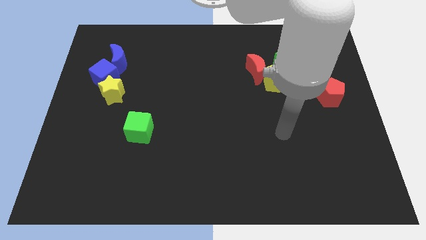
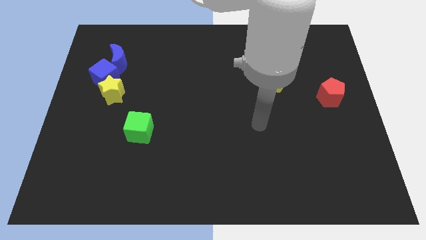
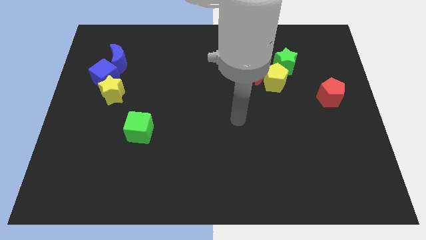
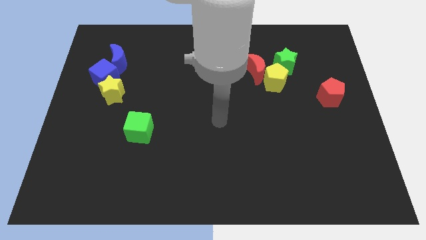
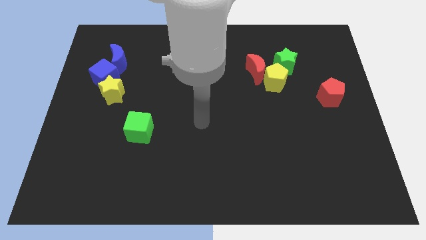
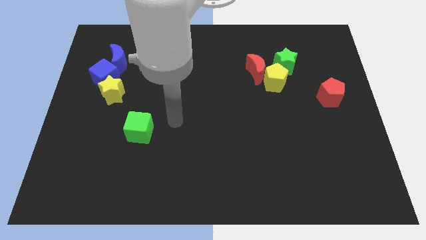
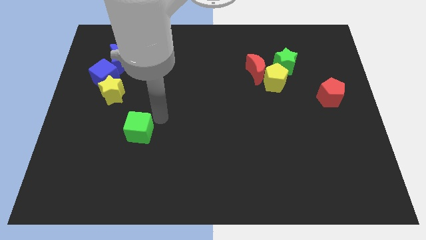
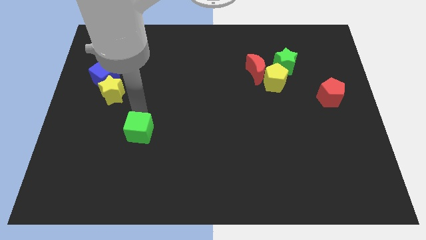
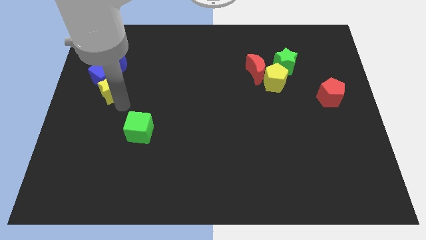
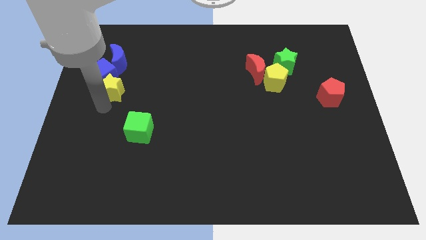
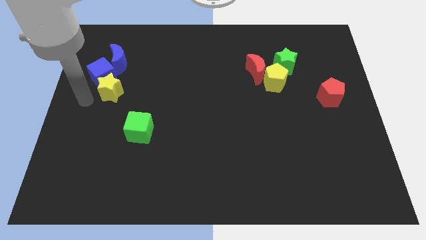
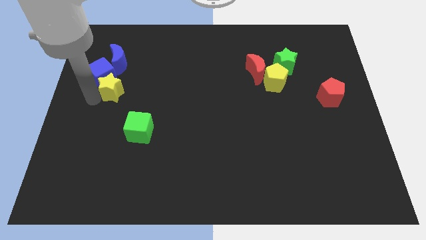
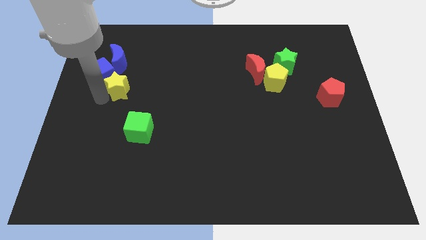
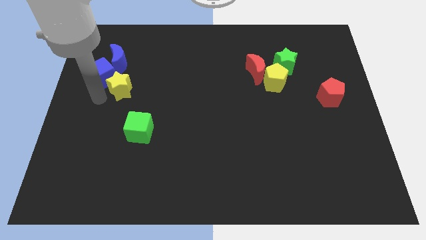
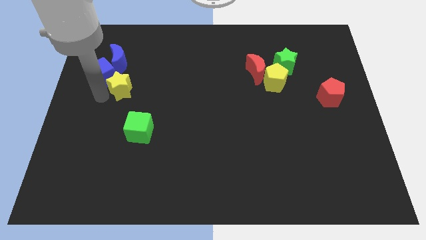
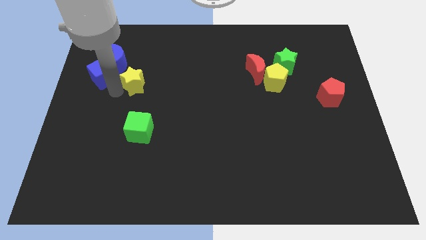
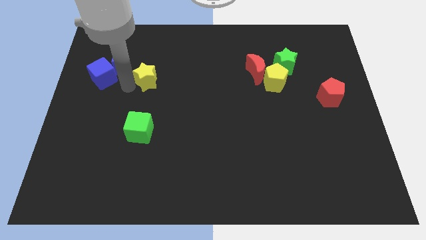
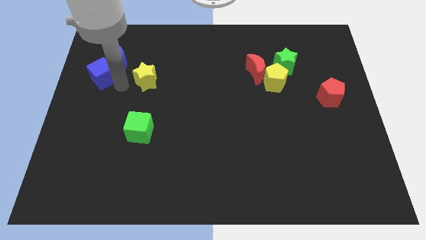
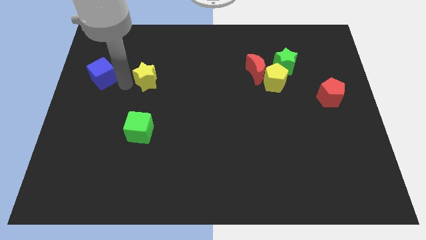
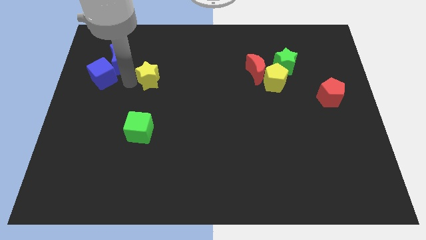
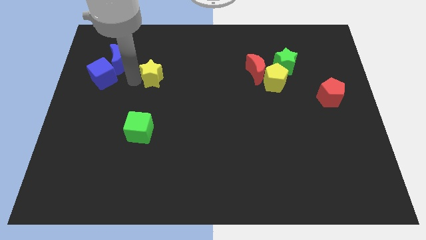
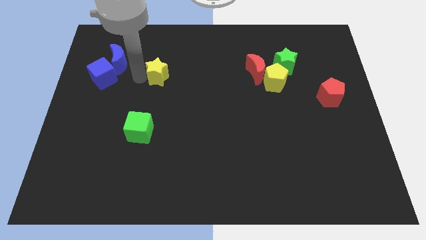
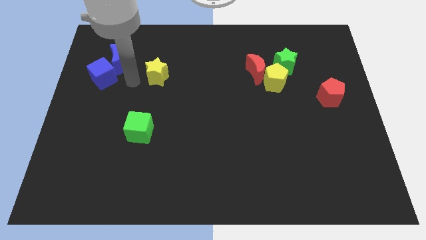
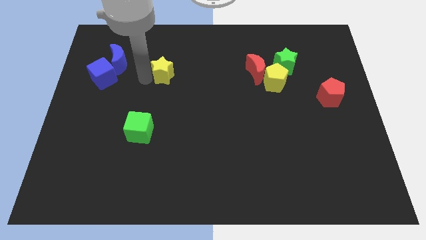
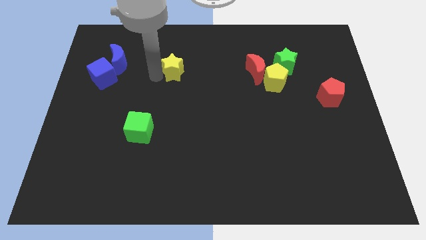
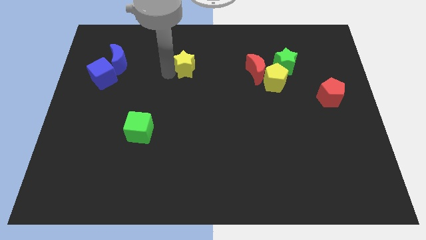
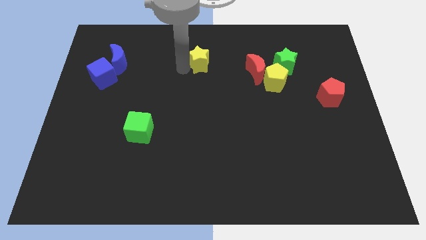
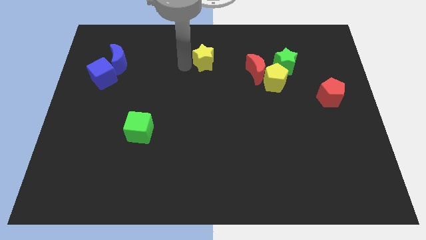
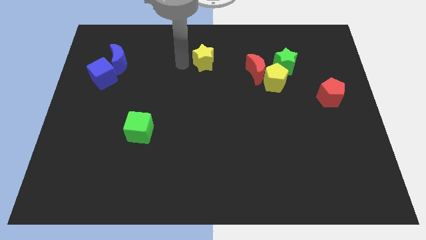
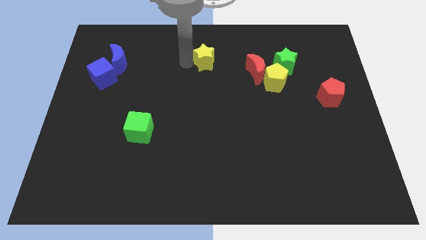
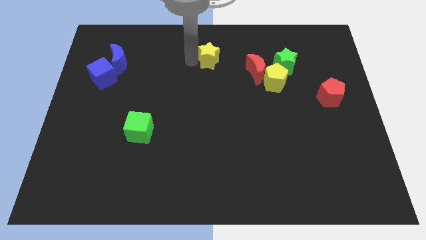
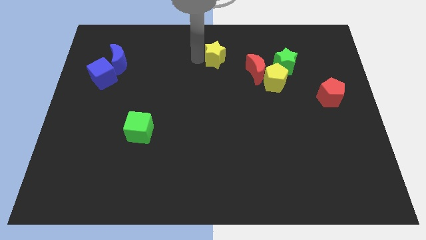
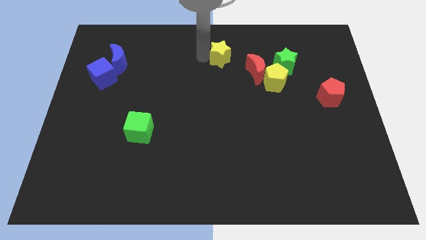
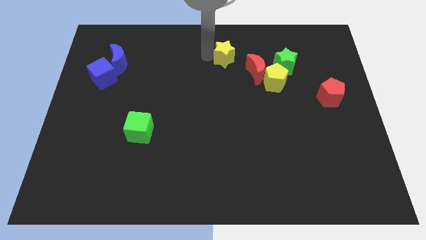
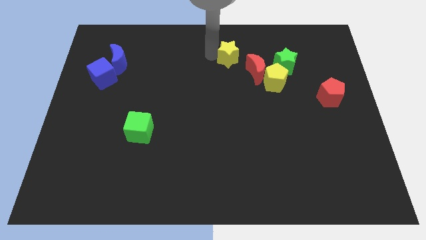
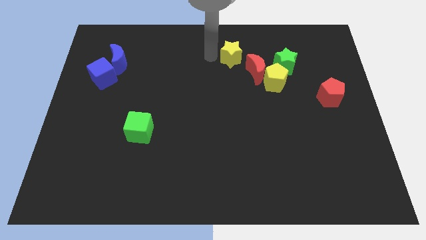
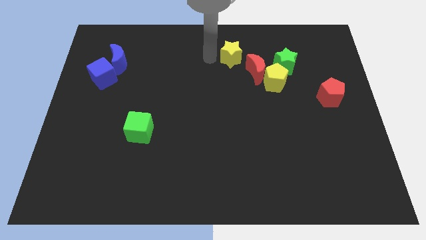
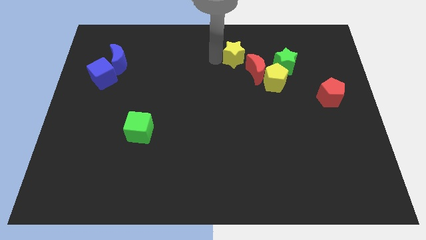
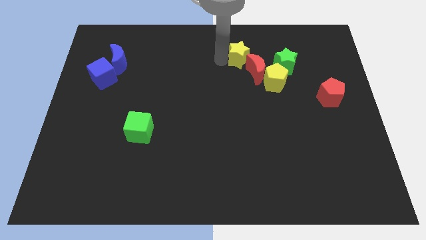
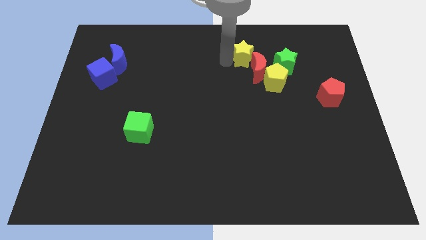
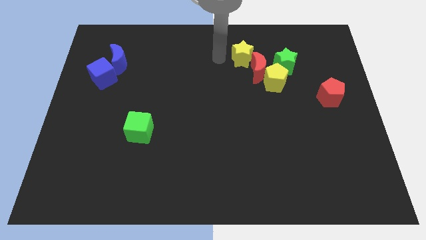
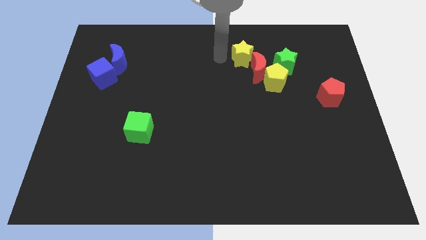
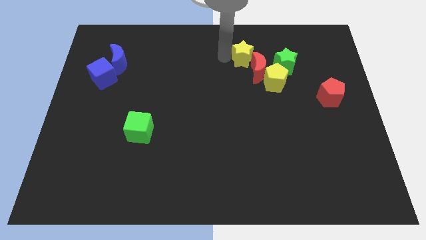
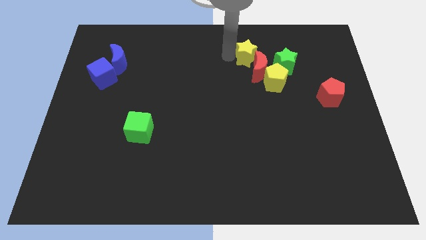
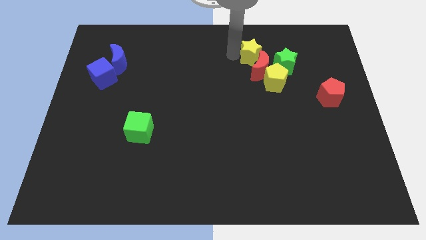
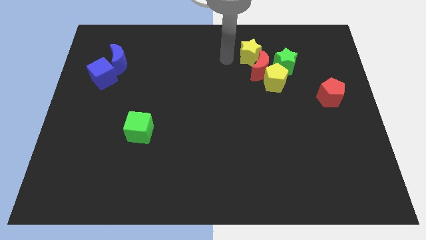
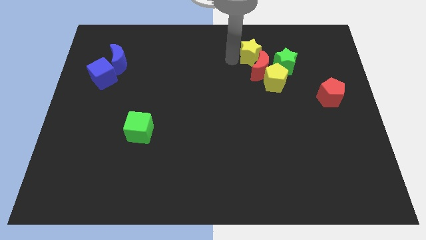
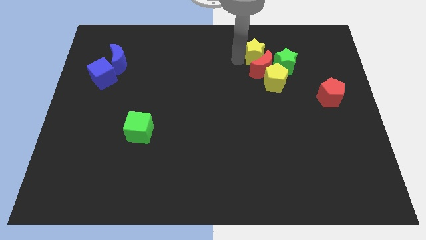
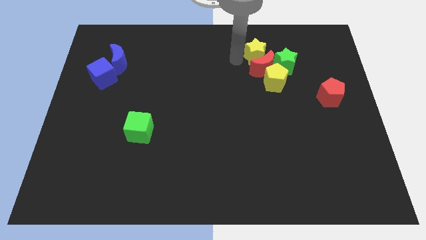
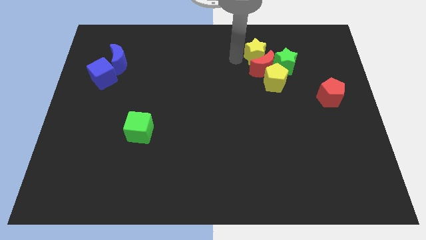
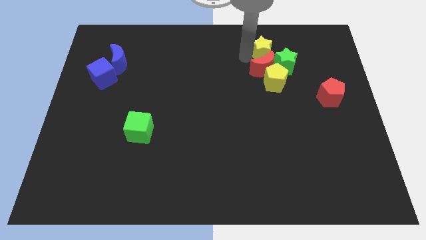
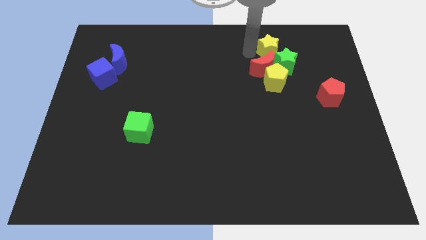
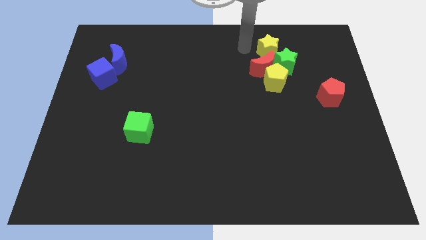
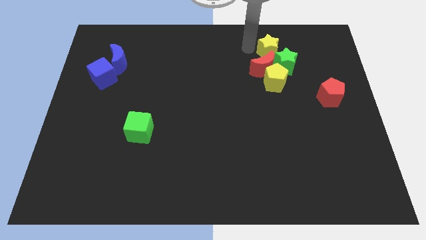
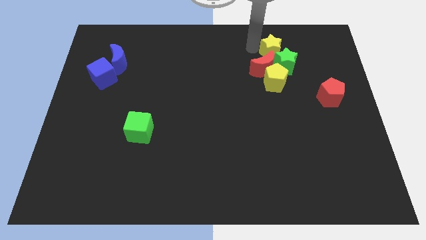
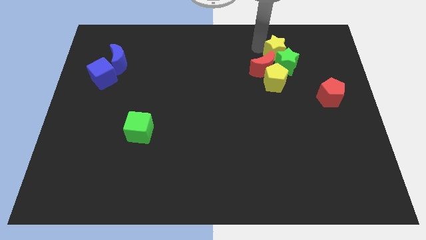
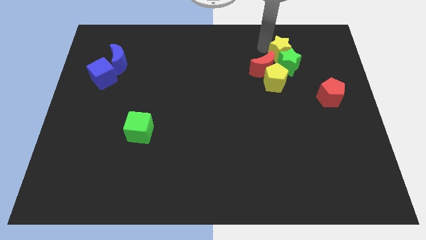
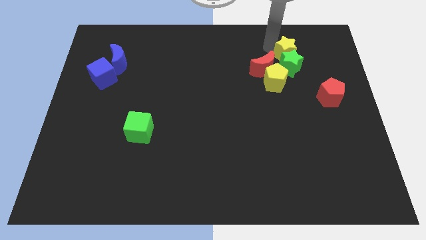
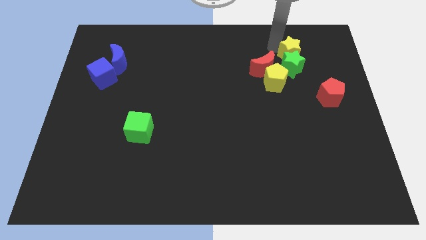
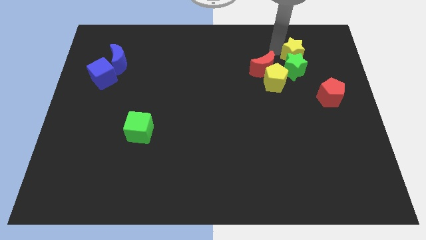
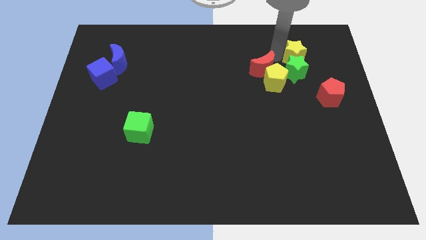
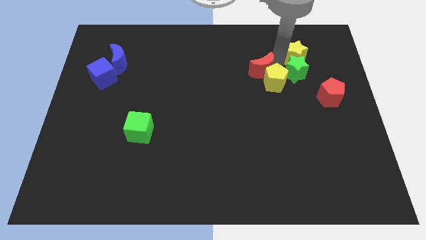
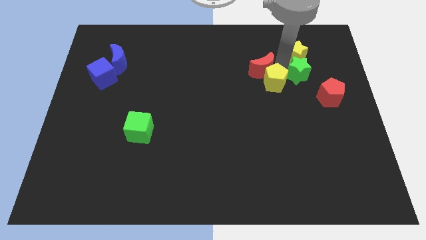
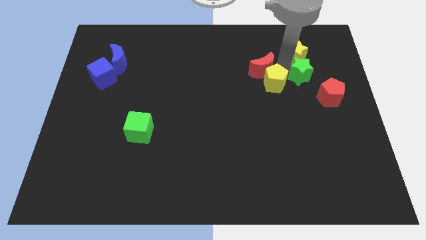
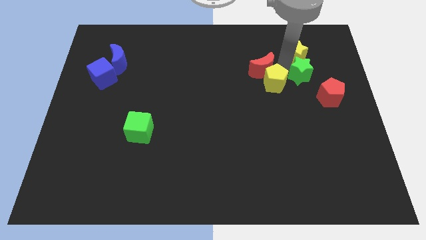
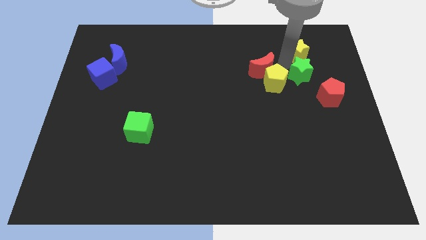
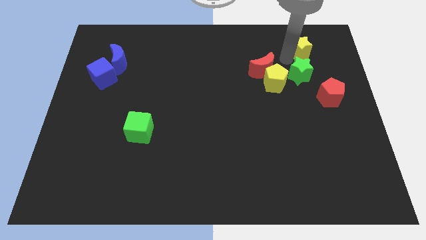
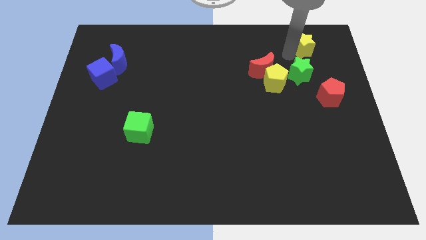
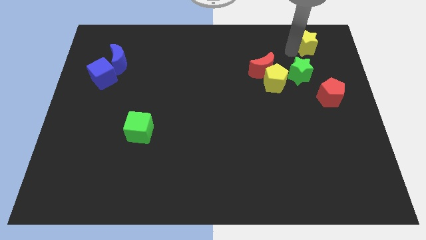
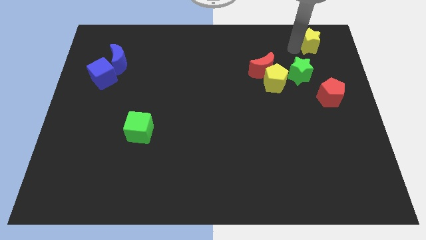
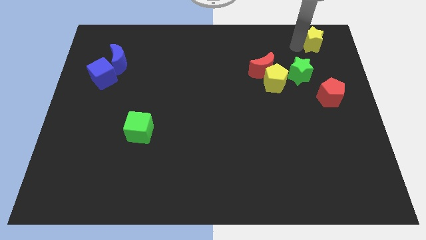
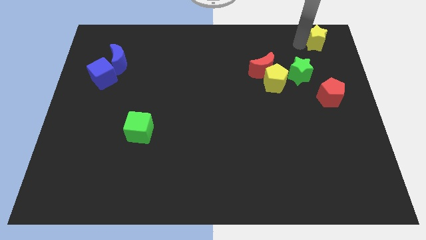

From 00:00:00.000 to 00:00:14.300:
put the yellow star to the upper right corner

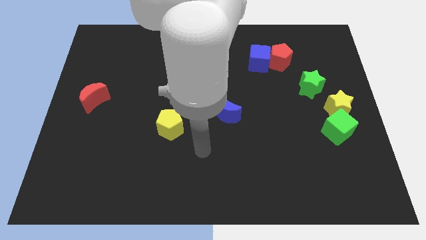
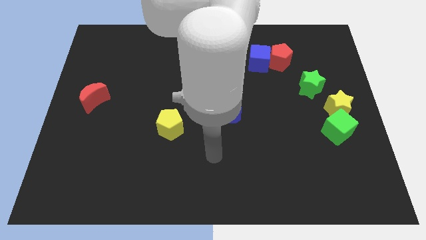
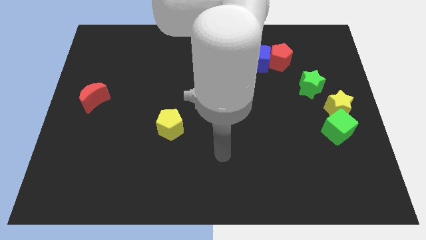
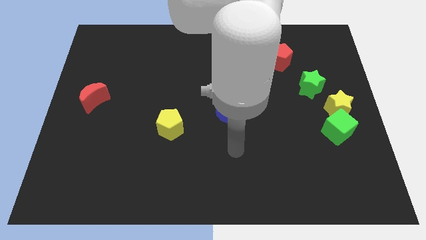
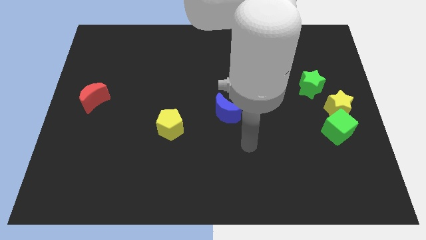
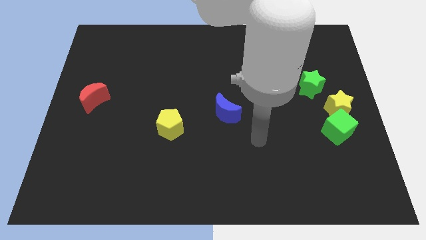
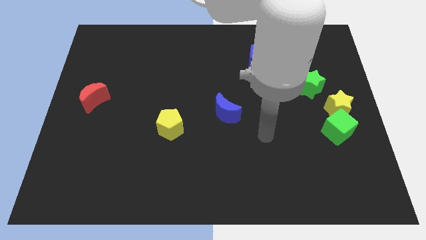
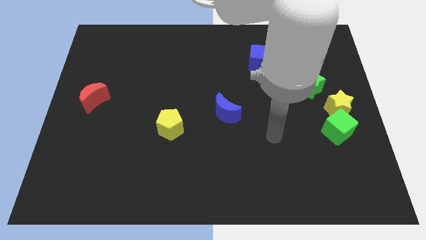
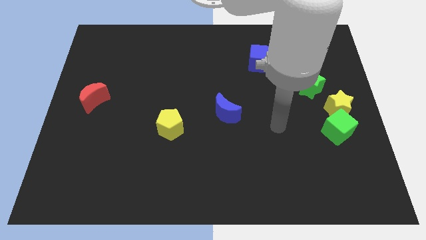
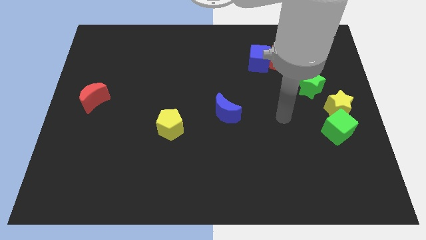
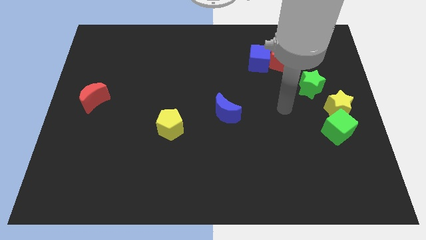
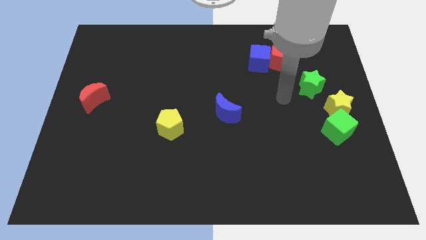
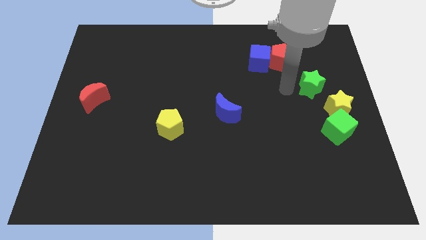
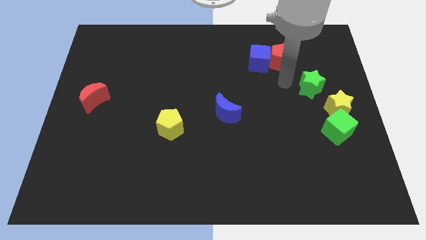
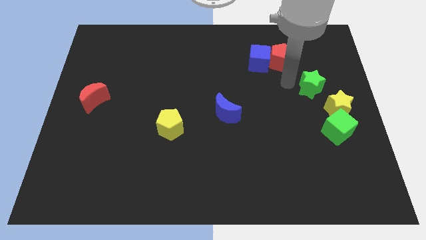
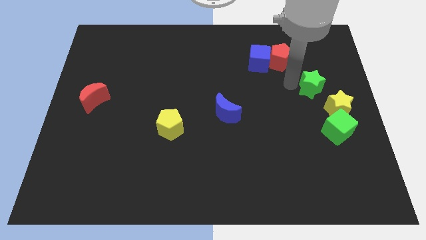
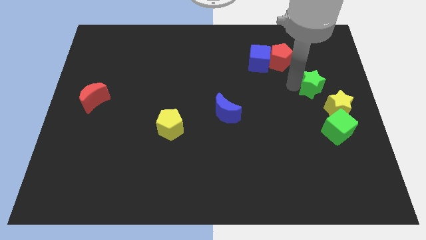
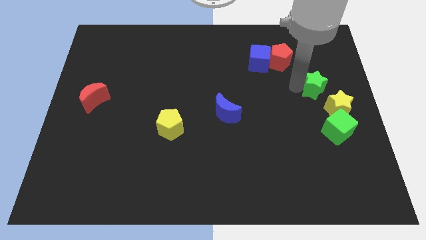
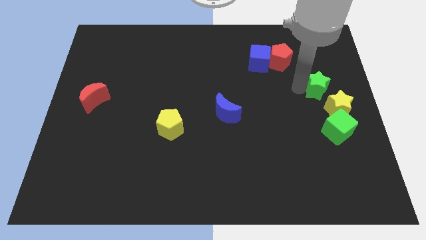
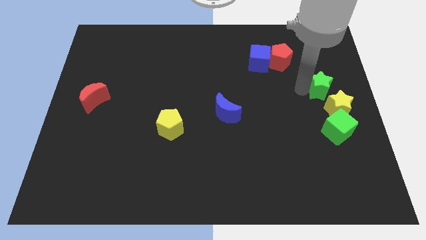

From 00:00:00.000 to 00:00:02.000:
slide the green star to the center right
